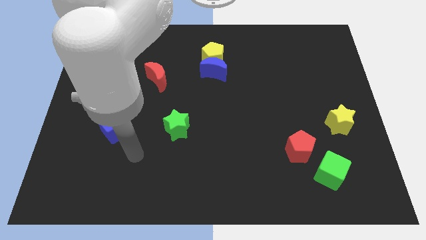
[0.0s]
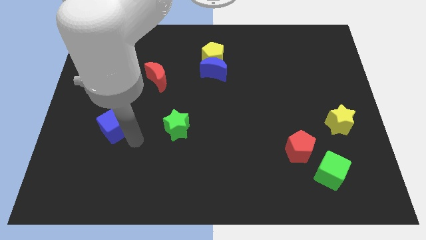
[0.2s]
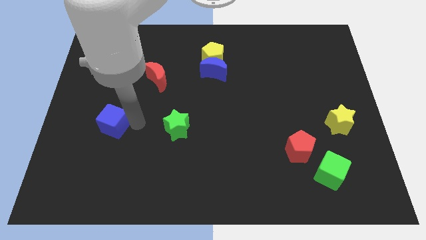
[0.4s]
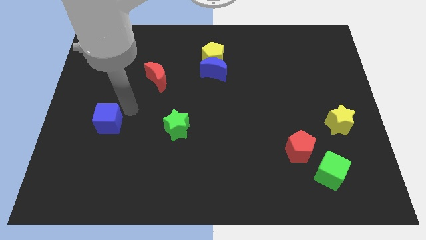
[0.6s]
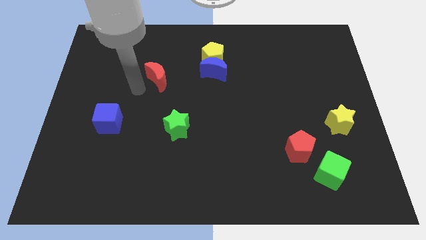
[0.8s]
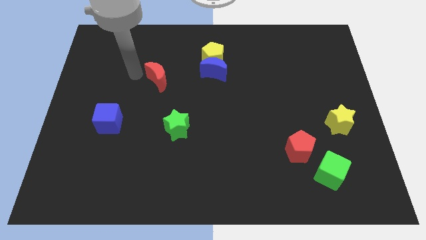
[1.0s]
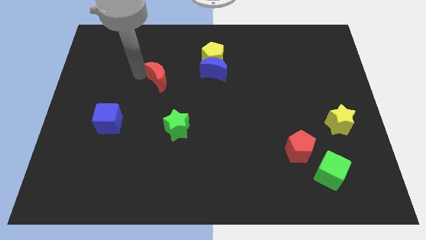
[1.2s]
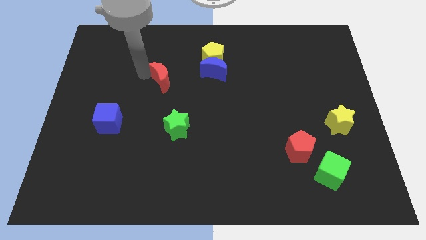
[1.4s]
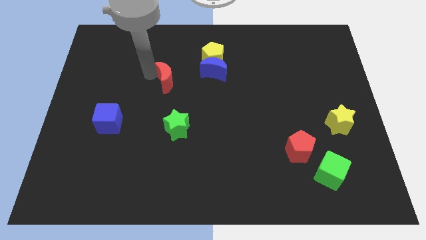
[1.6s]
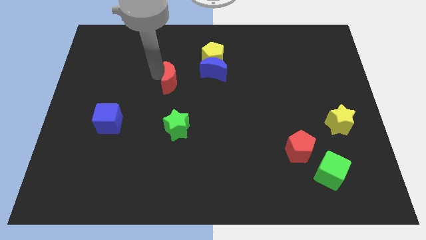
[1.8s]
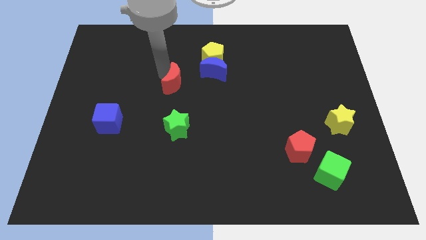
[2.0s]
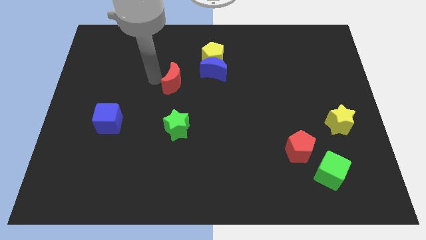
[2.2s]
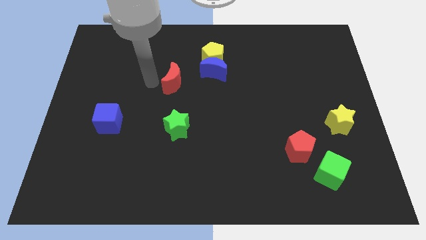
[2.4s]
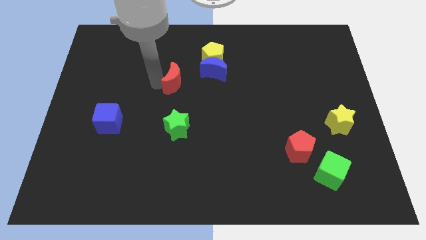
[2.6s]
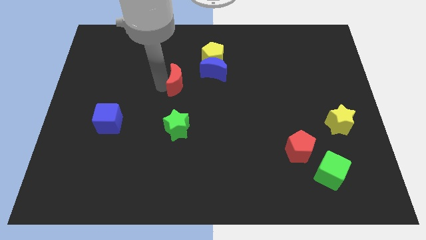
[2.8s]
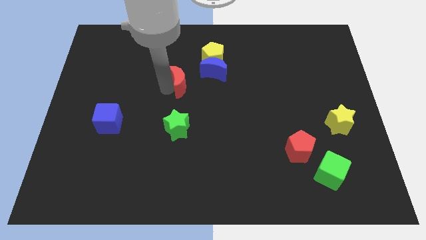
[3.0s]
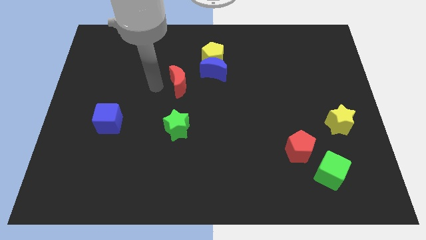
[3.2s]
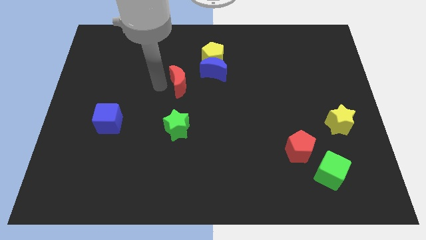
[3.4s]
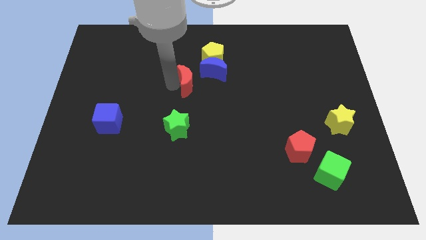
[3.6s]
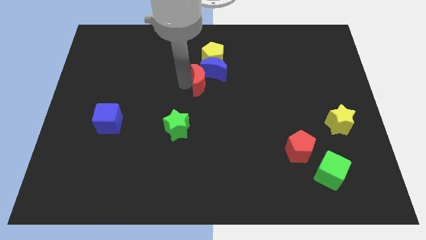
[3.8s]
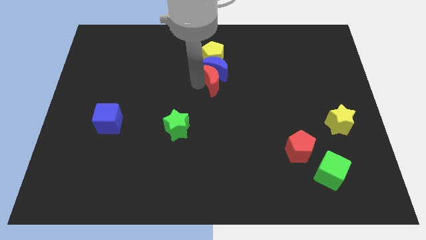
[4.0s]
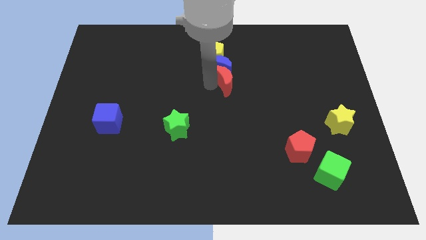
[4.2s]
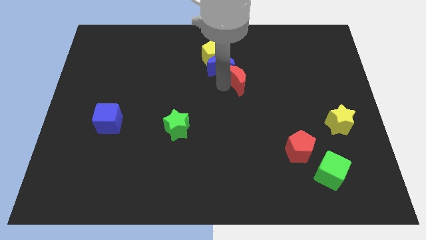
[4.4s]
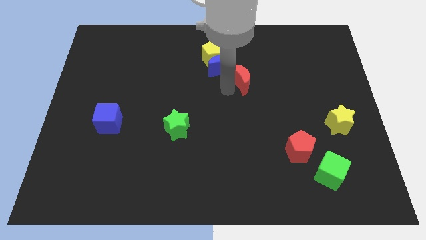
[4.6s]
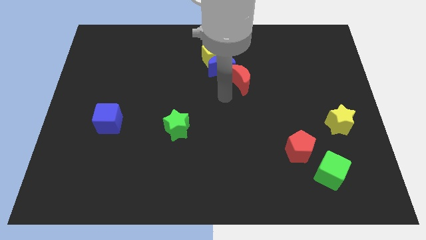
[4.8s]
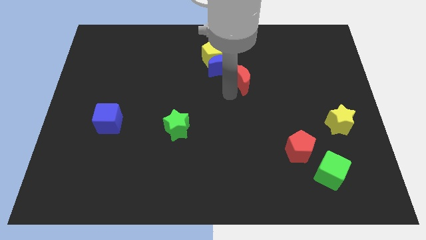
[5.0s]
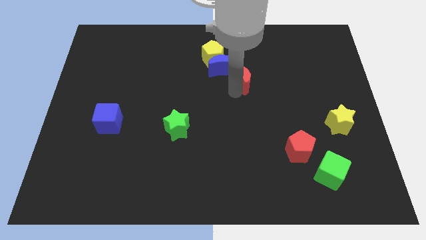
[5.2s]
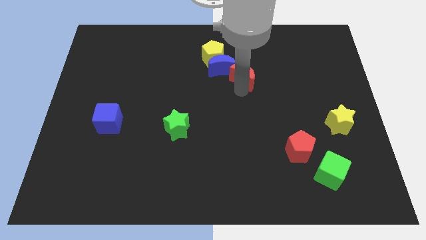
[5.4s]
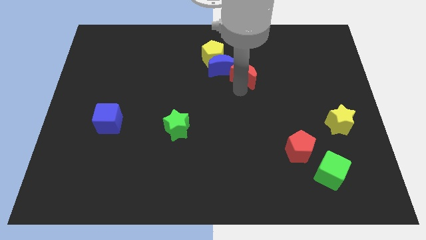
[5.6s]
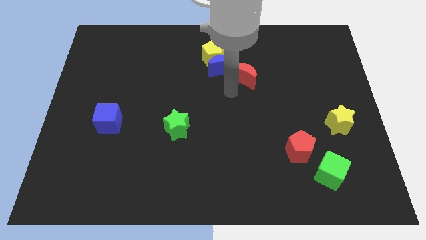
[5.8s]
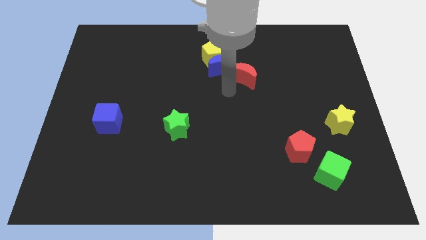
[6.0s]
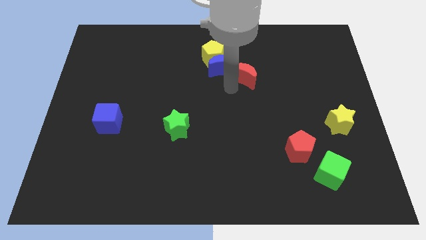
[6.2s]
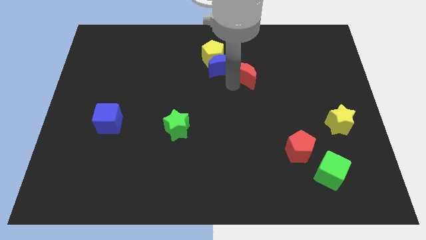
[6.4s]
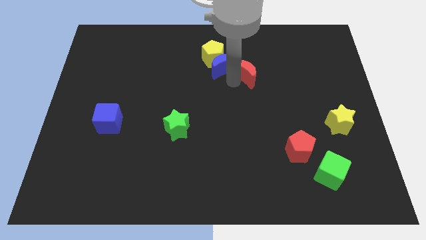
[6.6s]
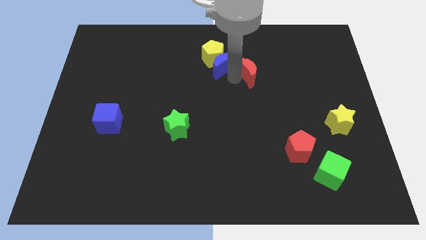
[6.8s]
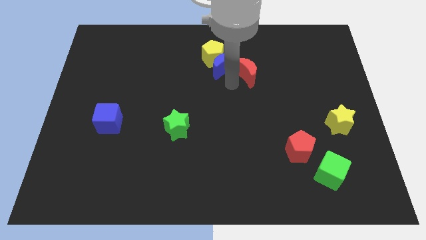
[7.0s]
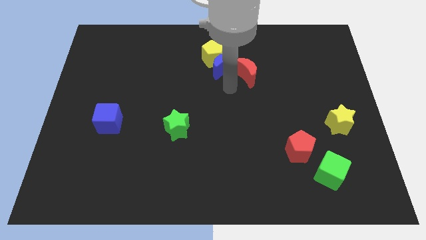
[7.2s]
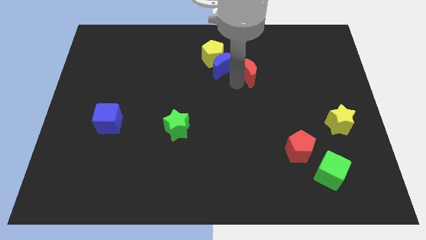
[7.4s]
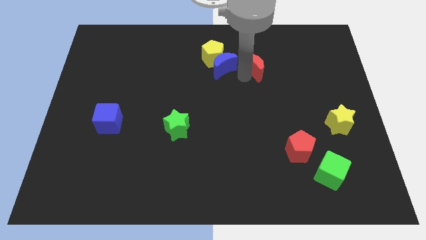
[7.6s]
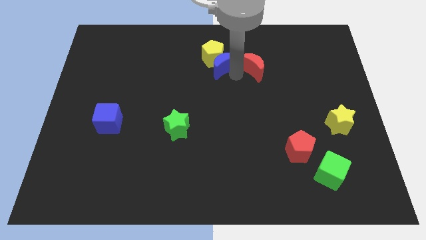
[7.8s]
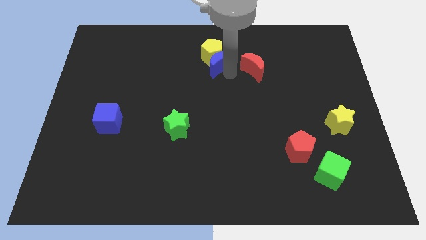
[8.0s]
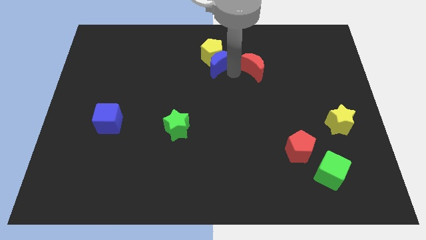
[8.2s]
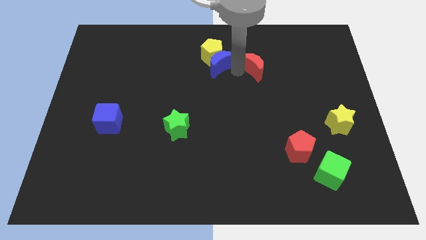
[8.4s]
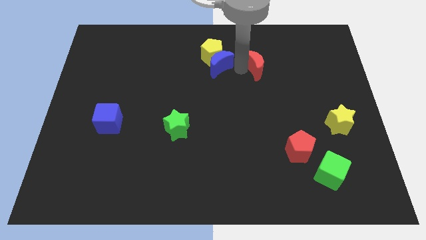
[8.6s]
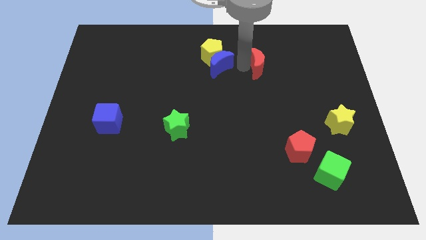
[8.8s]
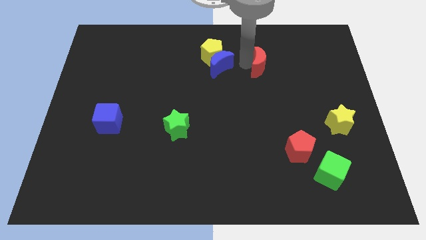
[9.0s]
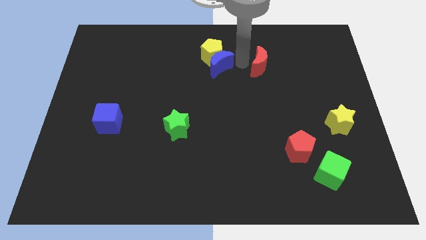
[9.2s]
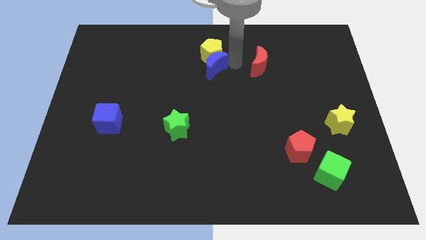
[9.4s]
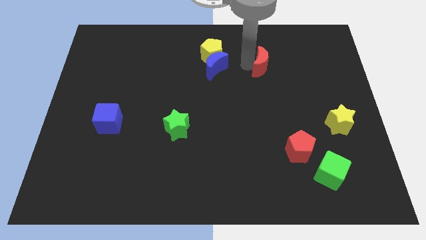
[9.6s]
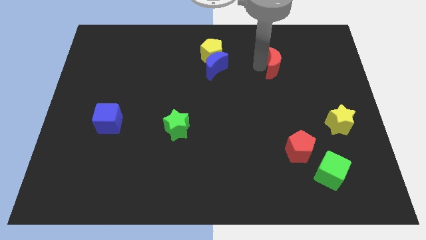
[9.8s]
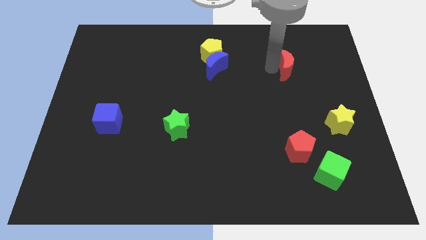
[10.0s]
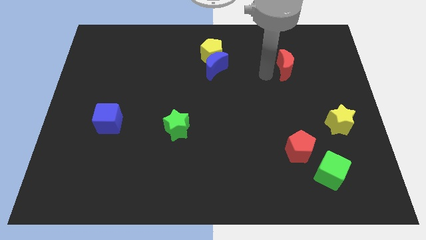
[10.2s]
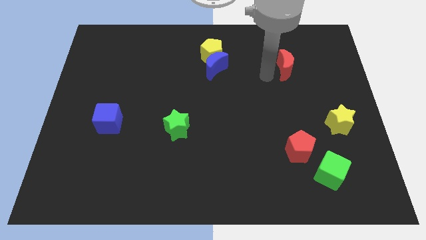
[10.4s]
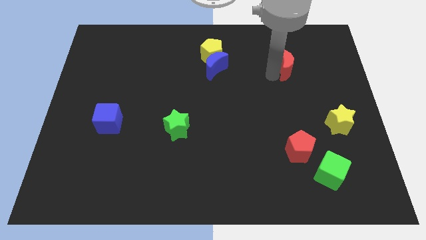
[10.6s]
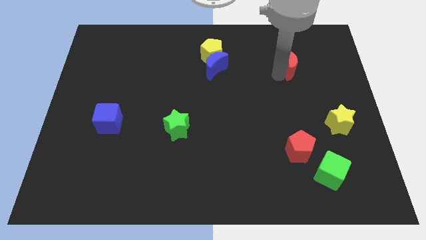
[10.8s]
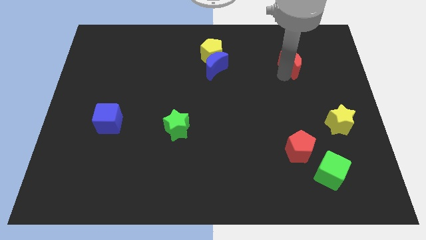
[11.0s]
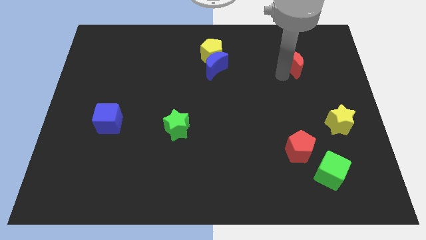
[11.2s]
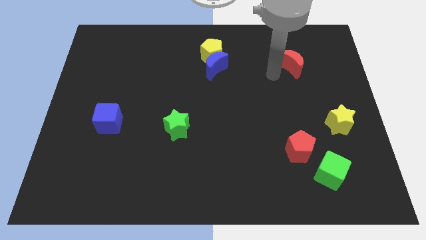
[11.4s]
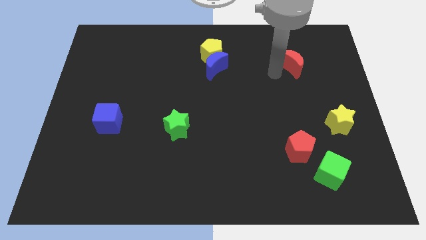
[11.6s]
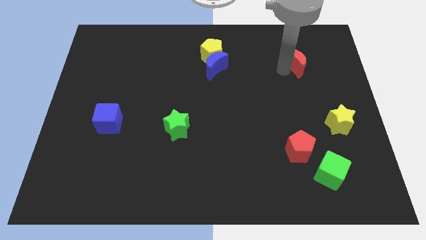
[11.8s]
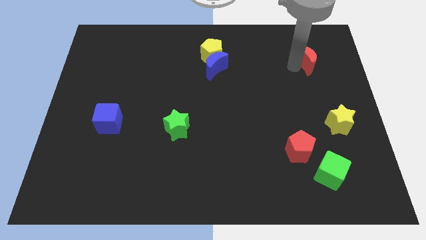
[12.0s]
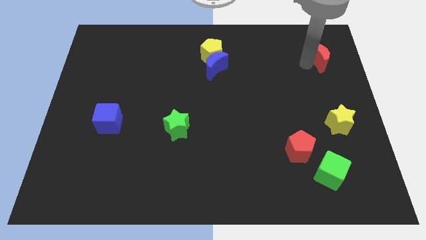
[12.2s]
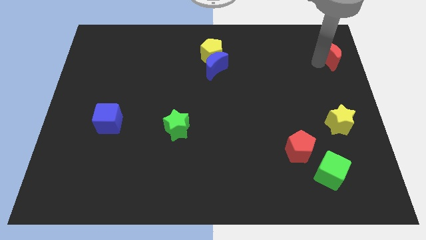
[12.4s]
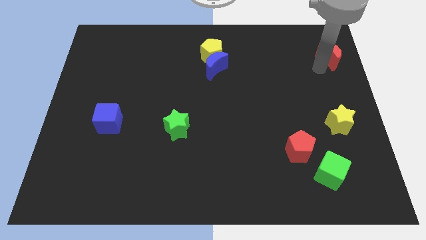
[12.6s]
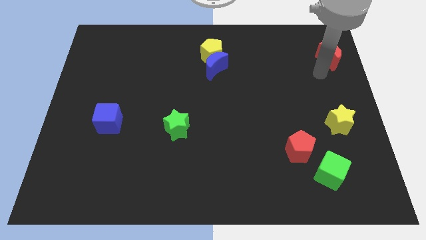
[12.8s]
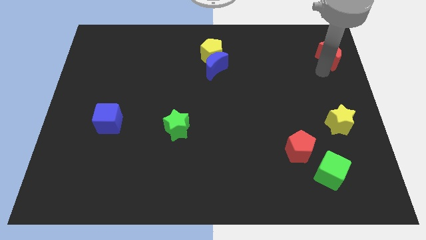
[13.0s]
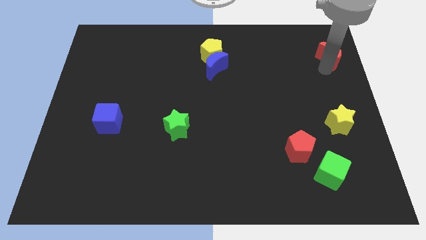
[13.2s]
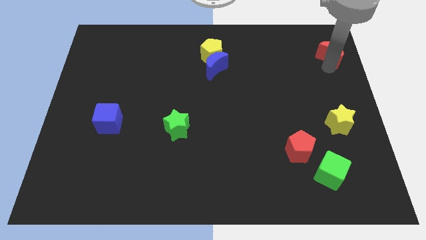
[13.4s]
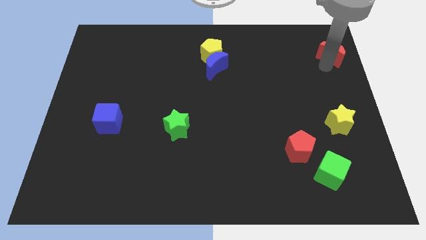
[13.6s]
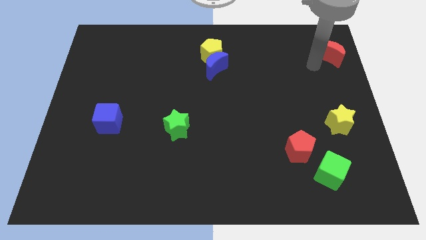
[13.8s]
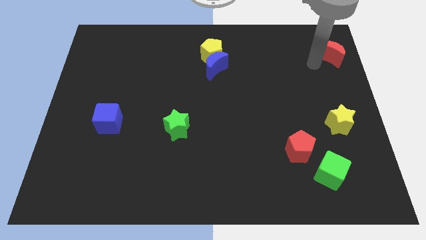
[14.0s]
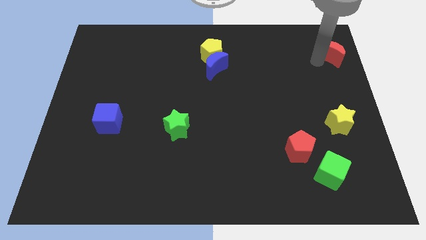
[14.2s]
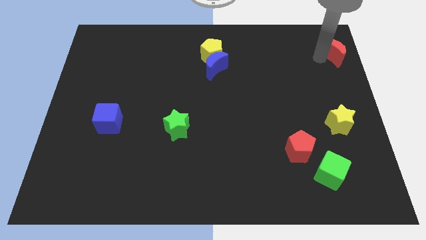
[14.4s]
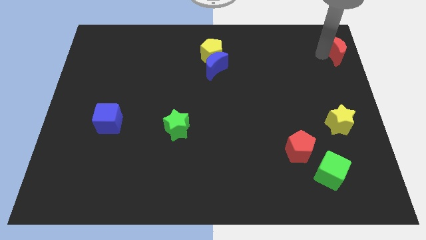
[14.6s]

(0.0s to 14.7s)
push the red moon to the top right
